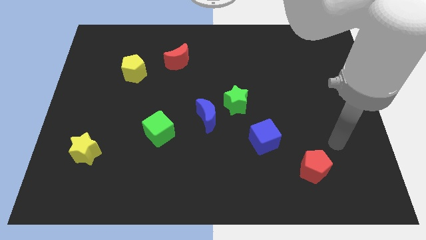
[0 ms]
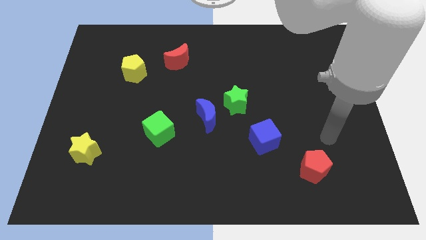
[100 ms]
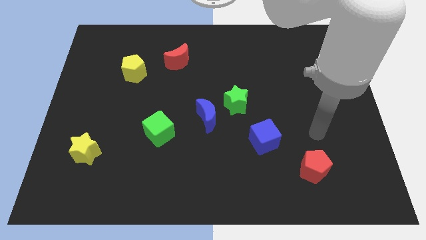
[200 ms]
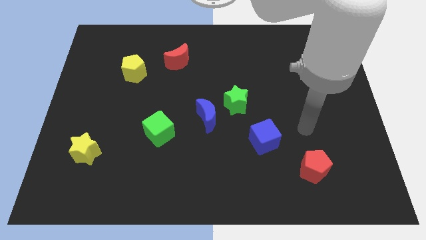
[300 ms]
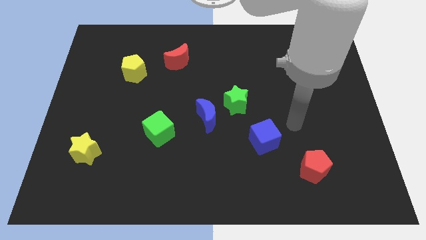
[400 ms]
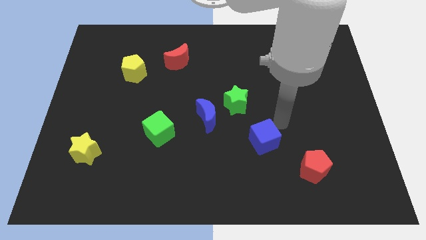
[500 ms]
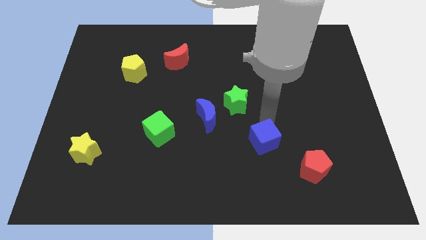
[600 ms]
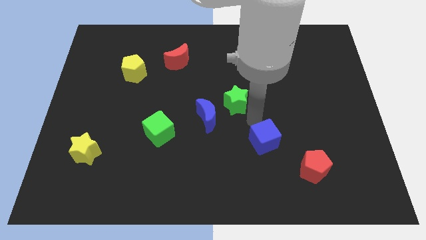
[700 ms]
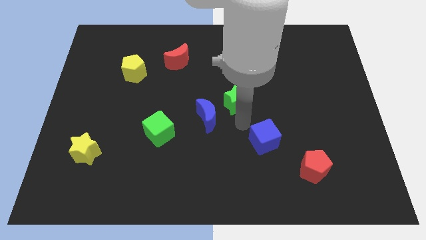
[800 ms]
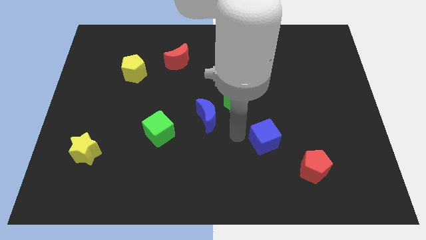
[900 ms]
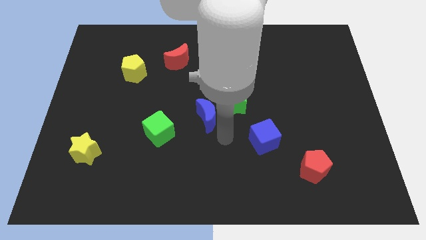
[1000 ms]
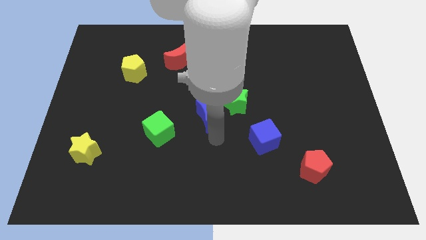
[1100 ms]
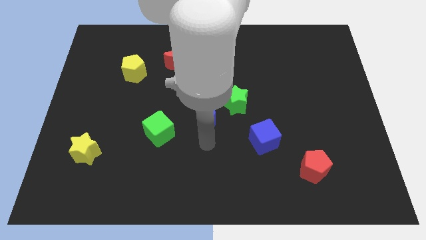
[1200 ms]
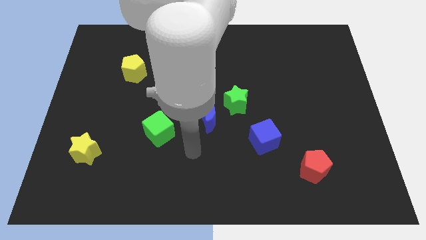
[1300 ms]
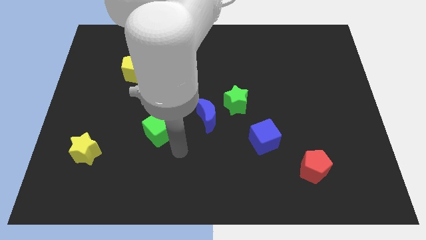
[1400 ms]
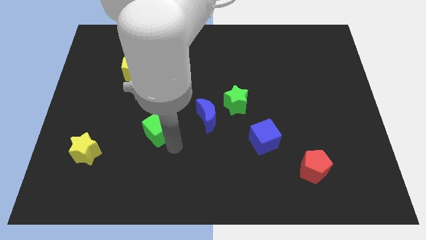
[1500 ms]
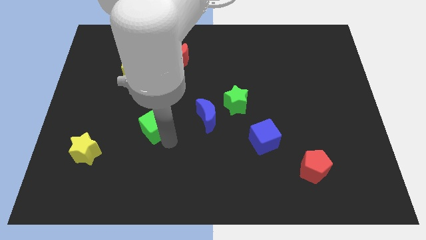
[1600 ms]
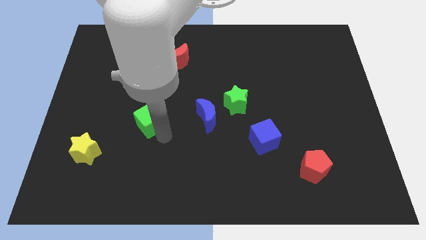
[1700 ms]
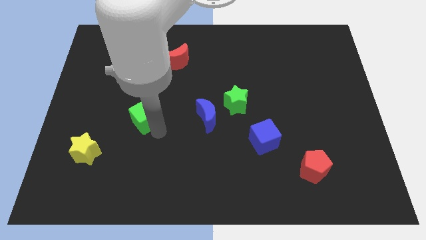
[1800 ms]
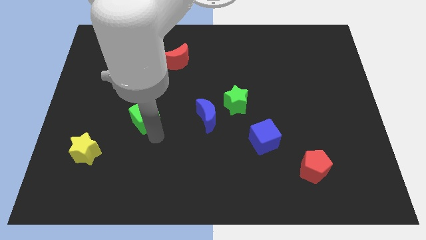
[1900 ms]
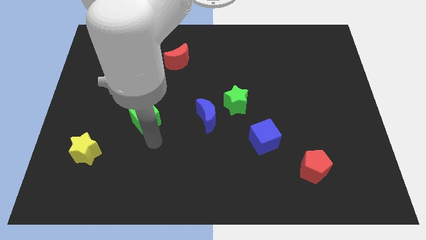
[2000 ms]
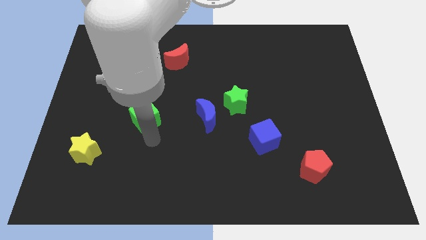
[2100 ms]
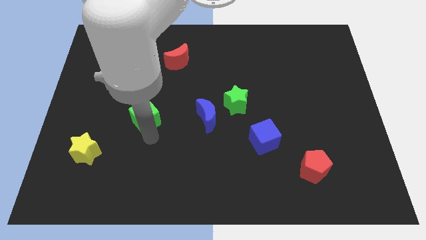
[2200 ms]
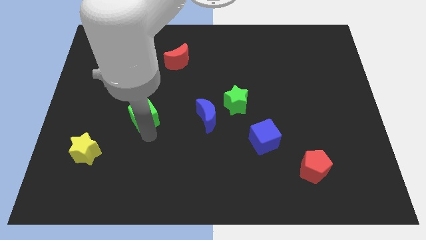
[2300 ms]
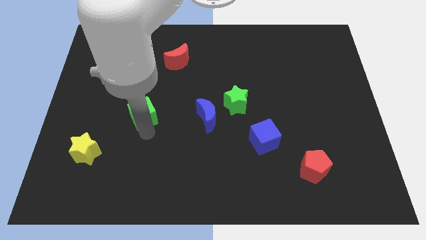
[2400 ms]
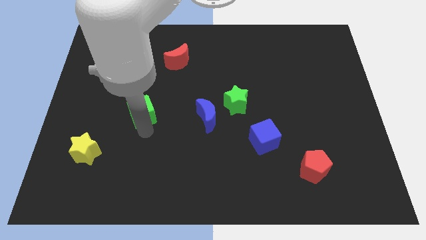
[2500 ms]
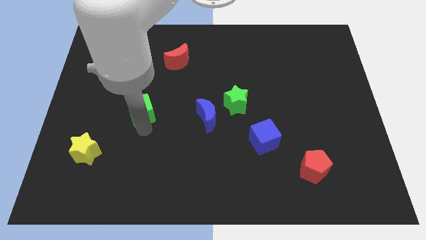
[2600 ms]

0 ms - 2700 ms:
push the green cube a little bit up and then to the left

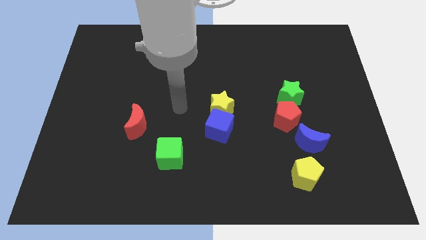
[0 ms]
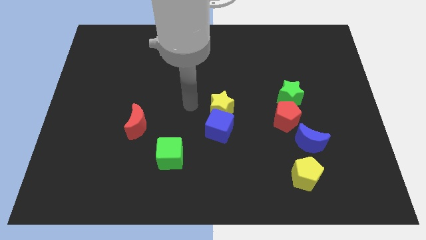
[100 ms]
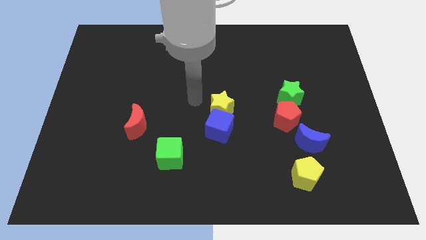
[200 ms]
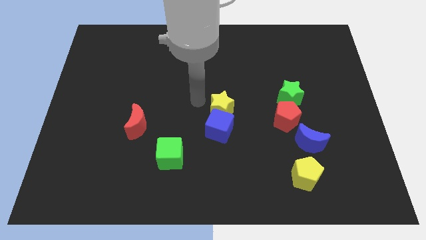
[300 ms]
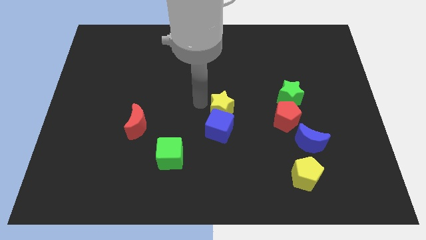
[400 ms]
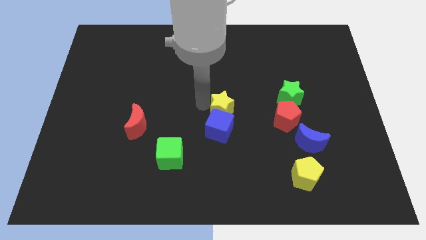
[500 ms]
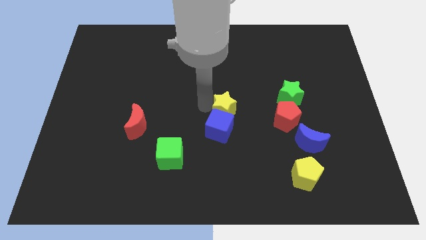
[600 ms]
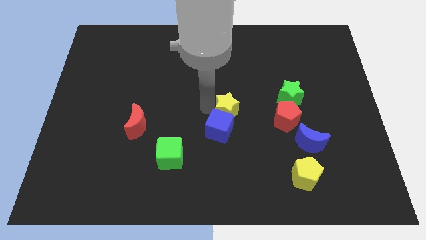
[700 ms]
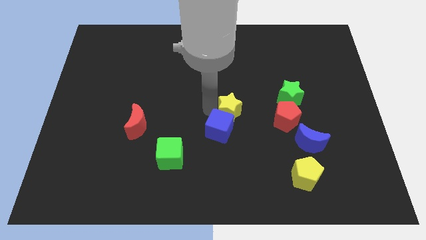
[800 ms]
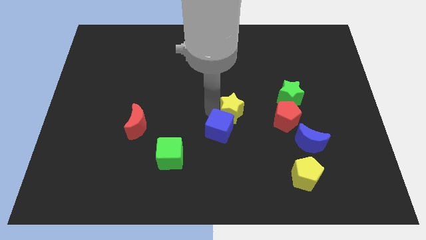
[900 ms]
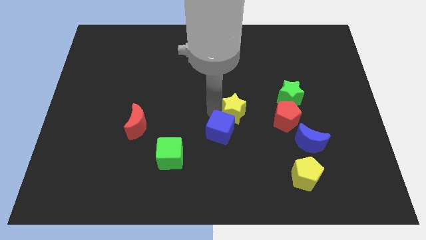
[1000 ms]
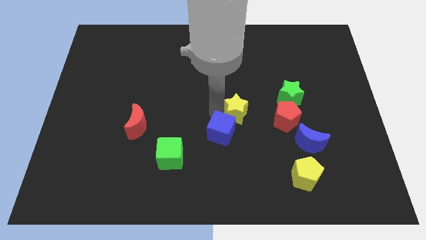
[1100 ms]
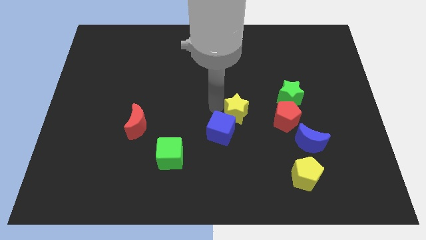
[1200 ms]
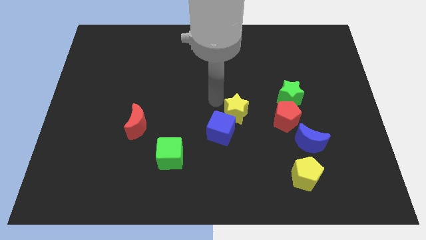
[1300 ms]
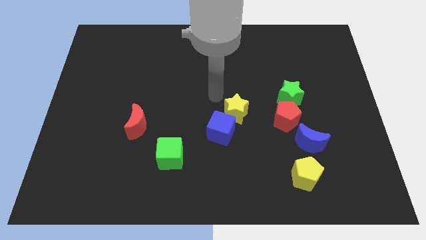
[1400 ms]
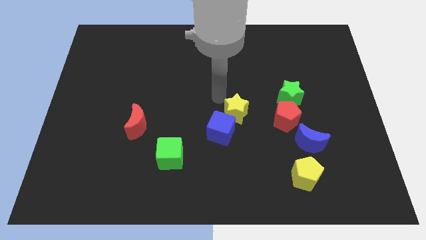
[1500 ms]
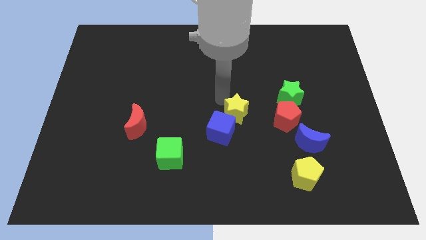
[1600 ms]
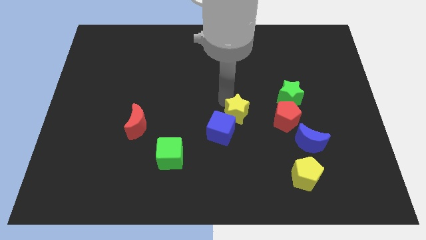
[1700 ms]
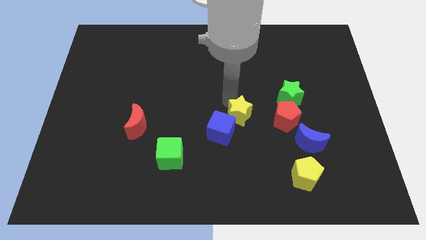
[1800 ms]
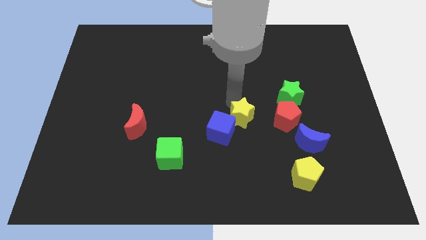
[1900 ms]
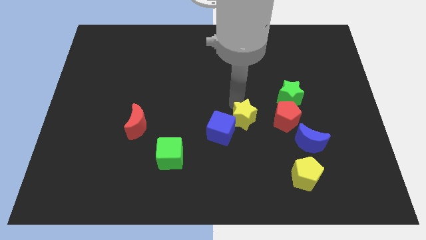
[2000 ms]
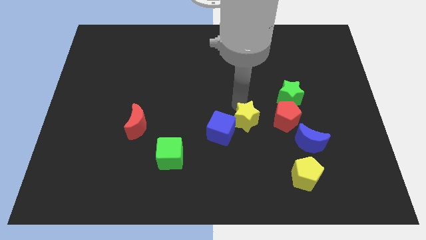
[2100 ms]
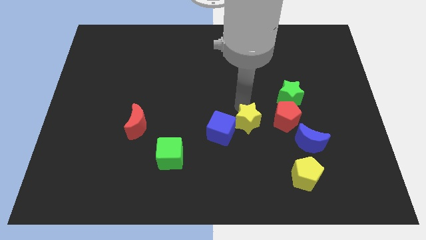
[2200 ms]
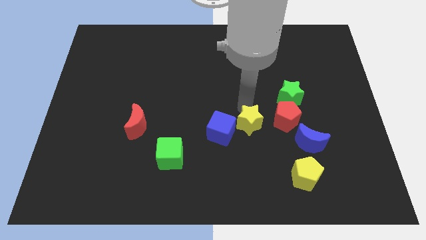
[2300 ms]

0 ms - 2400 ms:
slide the yellow star a little bit downwards and to the right

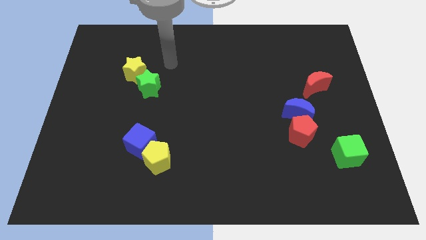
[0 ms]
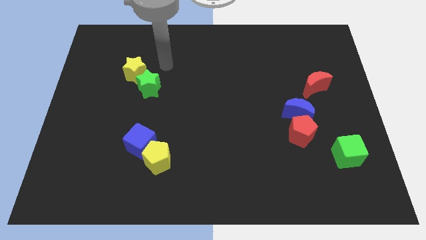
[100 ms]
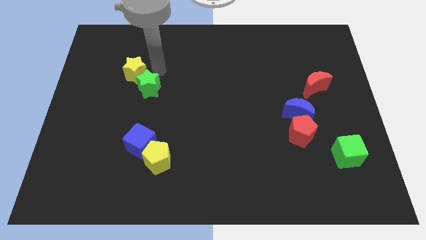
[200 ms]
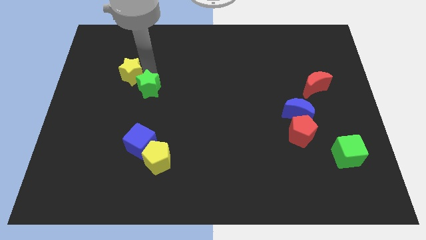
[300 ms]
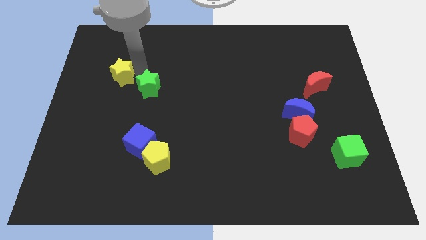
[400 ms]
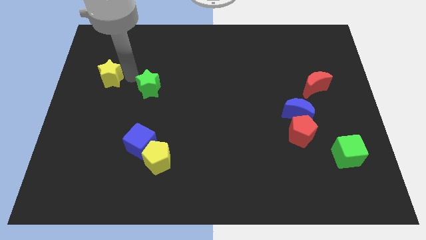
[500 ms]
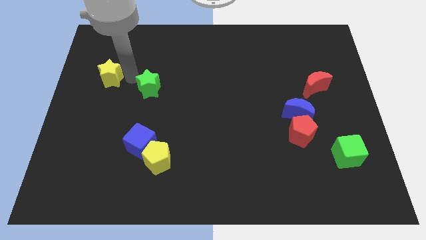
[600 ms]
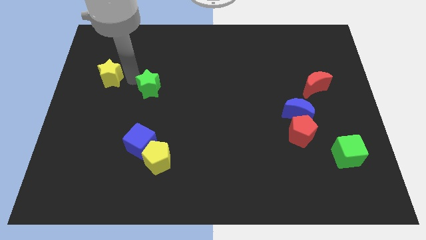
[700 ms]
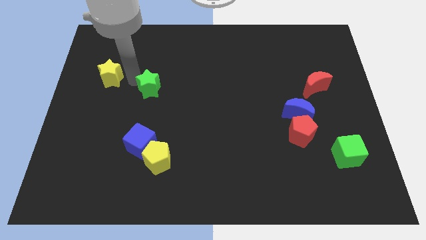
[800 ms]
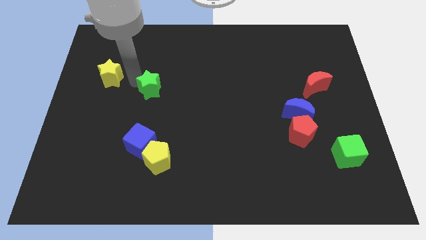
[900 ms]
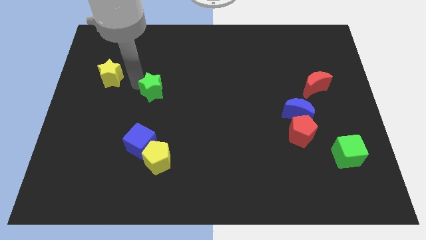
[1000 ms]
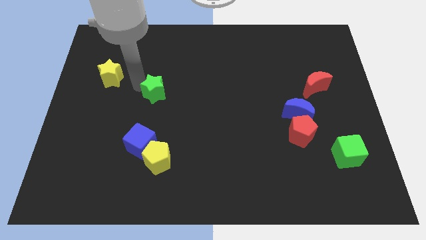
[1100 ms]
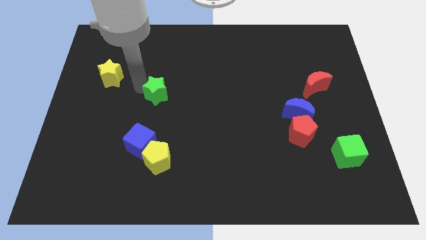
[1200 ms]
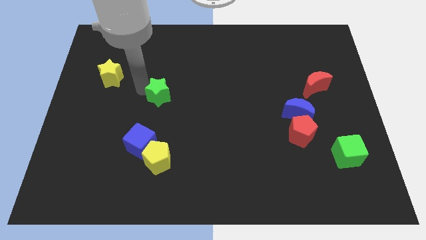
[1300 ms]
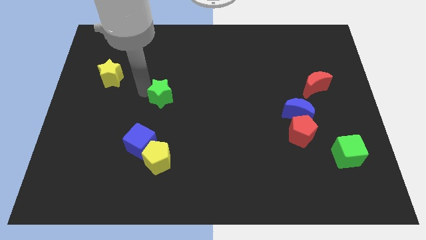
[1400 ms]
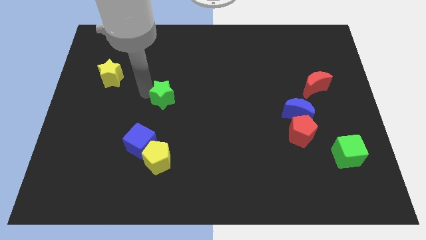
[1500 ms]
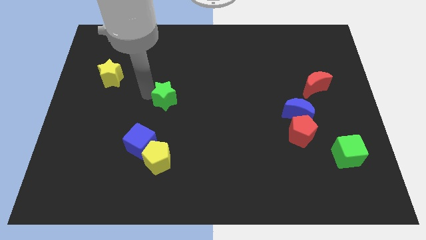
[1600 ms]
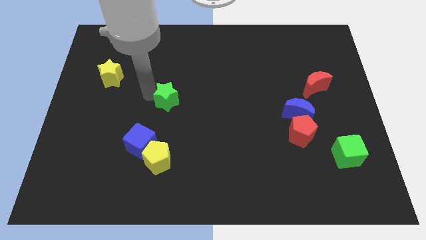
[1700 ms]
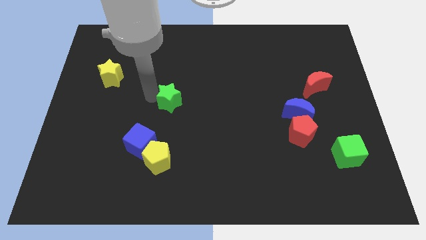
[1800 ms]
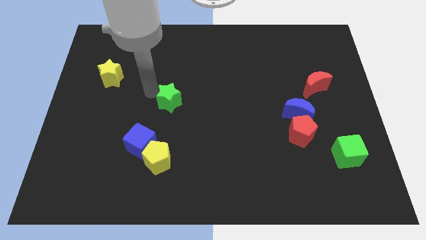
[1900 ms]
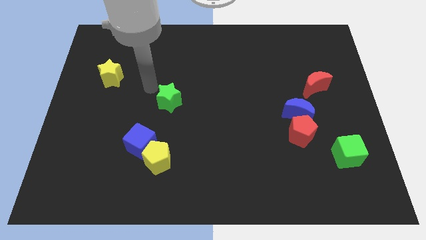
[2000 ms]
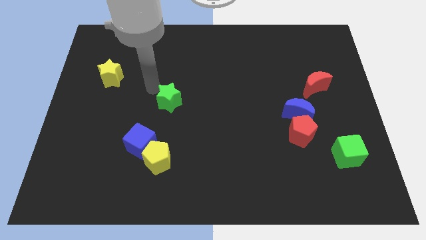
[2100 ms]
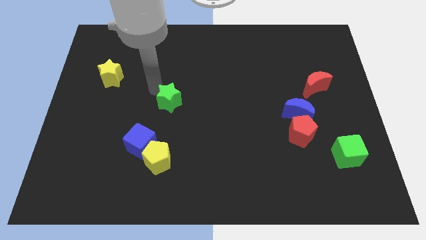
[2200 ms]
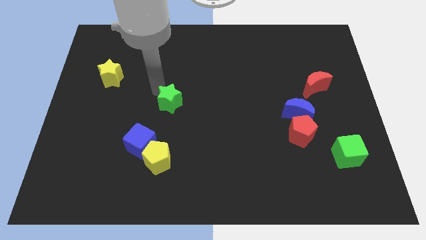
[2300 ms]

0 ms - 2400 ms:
slide the green star down and right somewhat

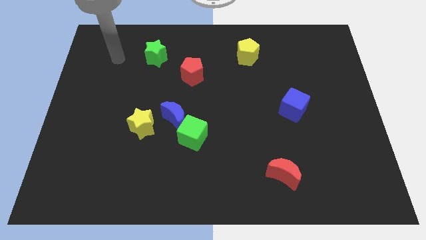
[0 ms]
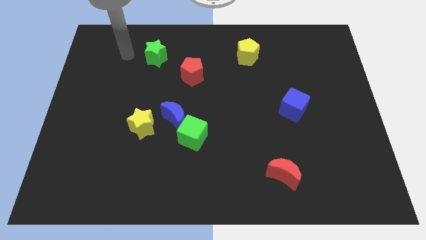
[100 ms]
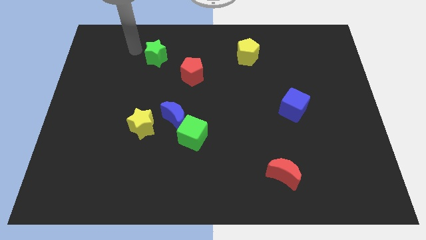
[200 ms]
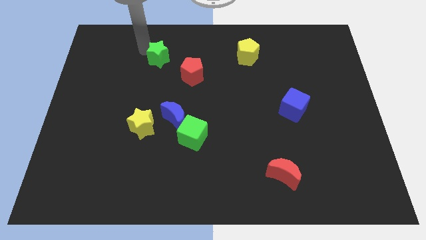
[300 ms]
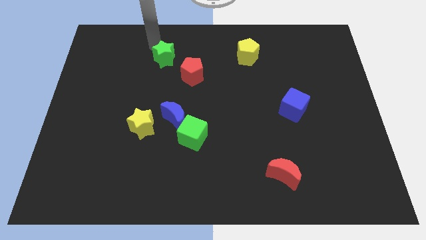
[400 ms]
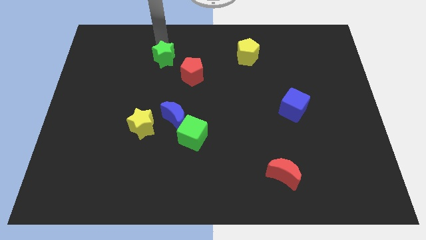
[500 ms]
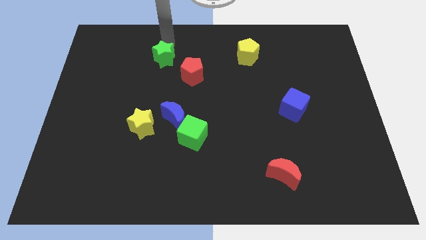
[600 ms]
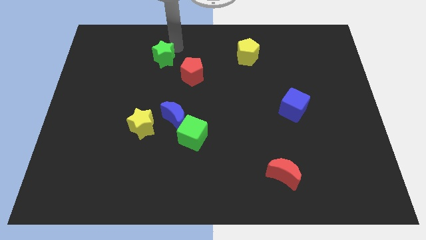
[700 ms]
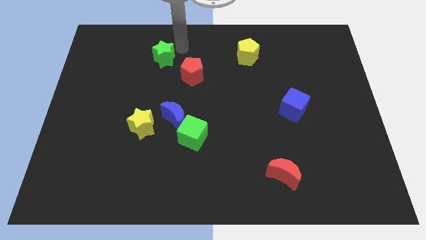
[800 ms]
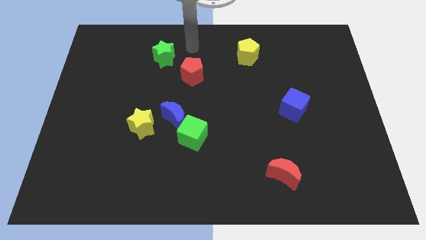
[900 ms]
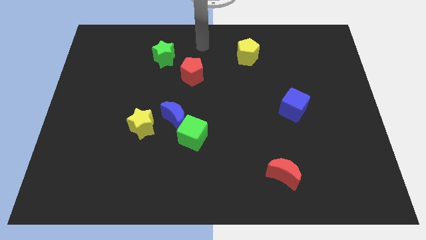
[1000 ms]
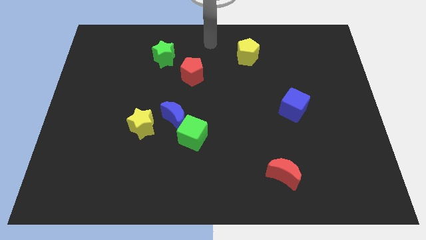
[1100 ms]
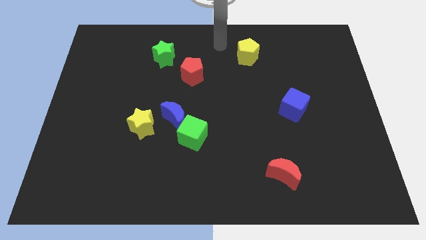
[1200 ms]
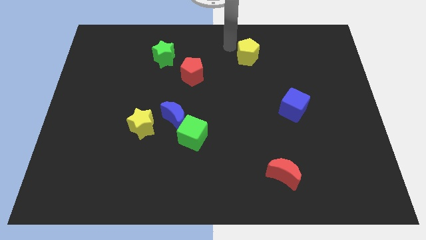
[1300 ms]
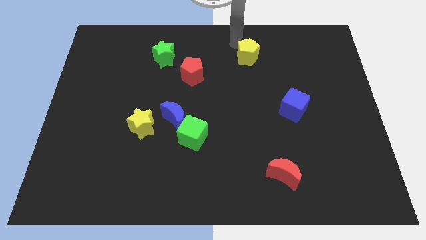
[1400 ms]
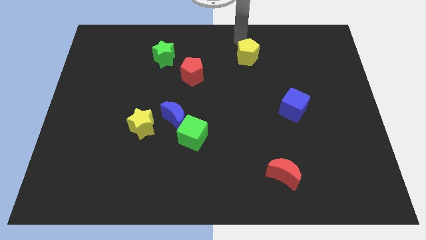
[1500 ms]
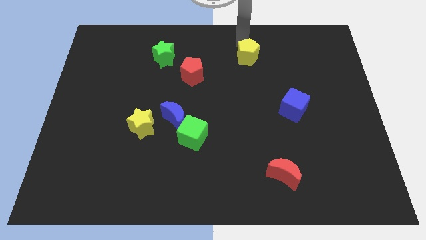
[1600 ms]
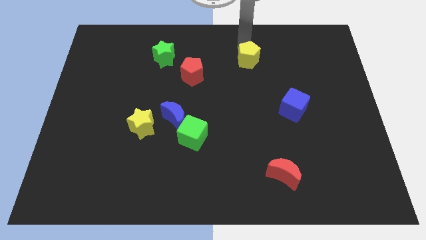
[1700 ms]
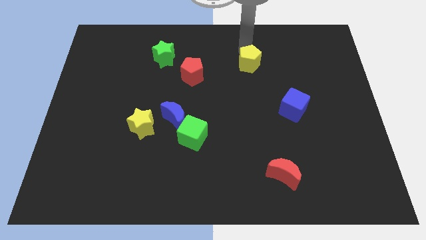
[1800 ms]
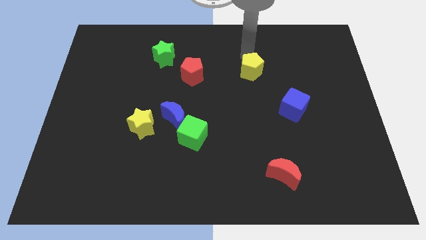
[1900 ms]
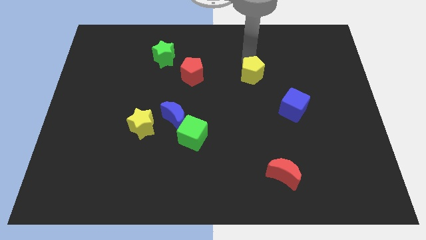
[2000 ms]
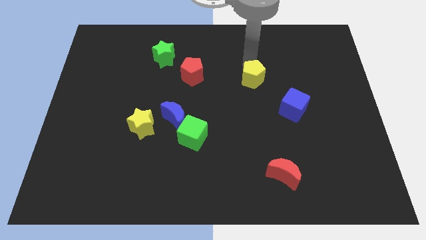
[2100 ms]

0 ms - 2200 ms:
move the yellow pentagon downwards a bit
